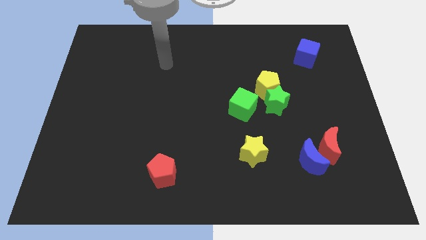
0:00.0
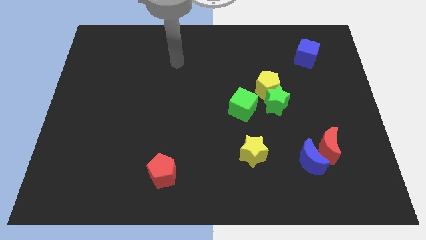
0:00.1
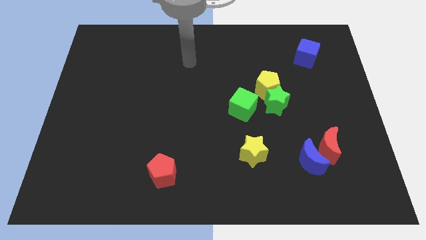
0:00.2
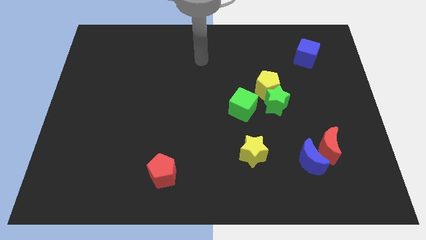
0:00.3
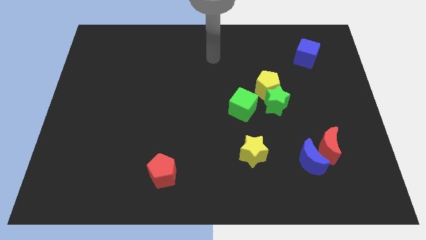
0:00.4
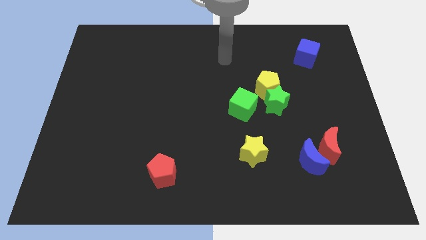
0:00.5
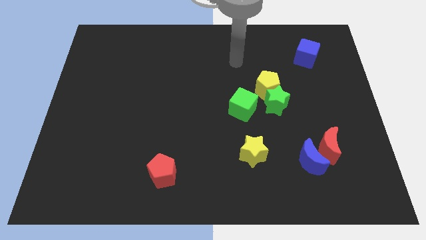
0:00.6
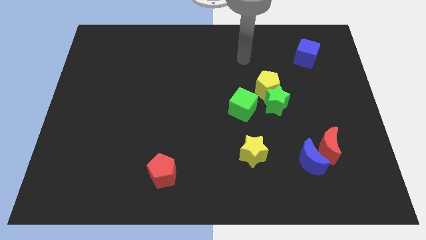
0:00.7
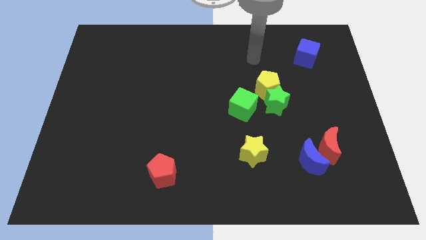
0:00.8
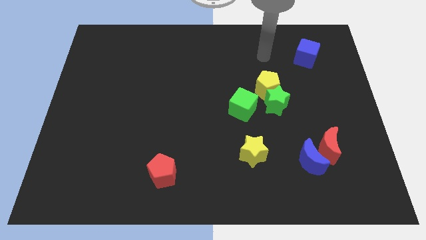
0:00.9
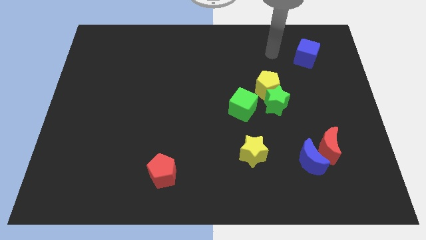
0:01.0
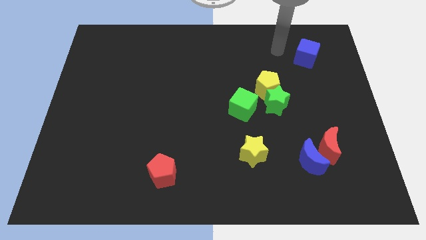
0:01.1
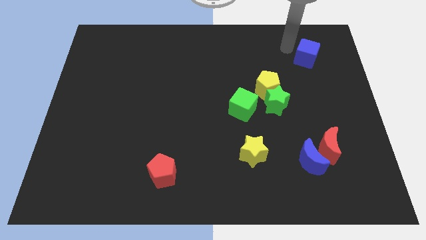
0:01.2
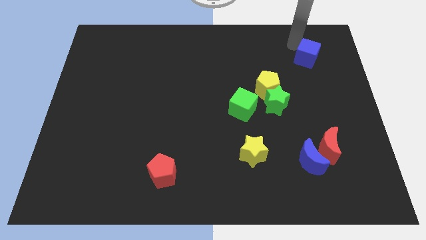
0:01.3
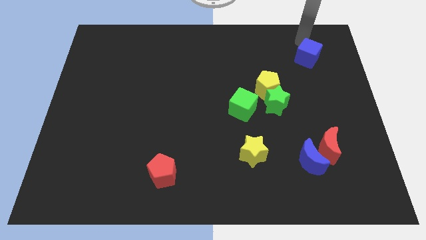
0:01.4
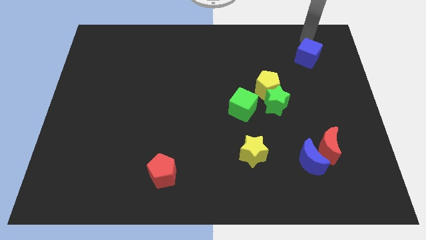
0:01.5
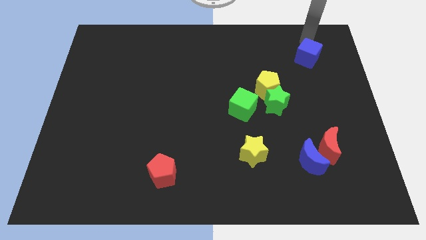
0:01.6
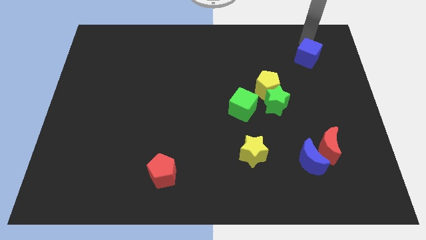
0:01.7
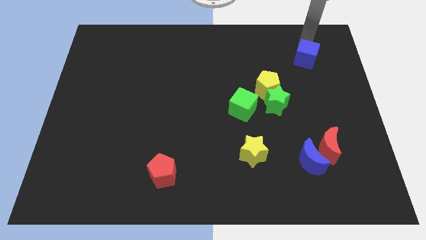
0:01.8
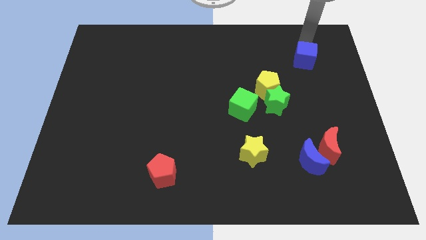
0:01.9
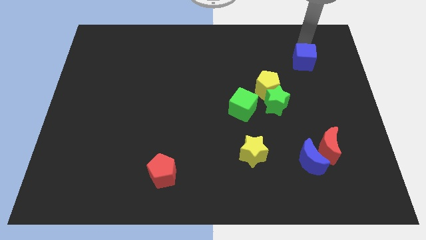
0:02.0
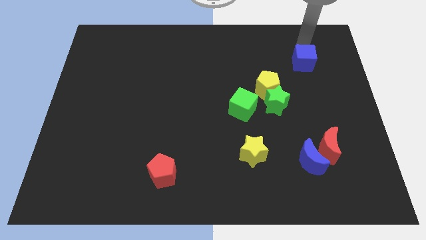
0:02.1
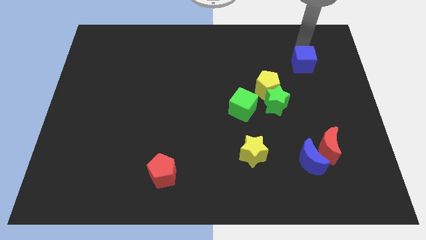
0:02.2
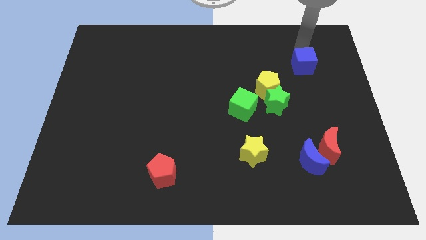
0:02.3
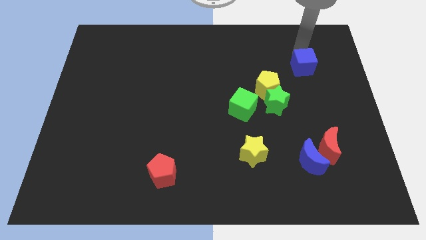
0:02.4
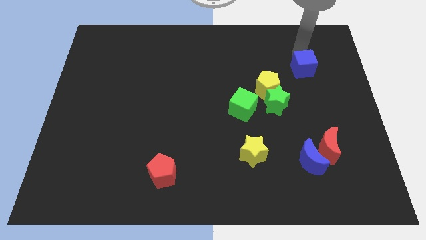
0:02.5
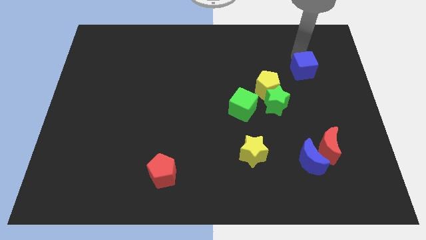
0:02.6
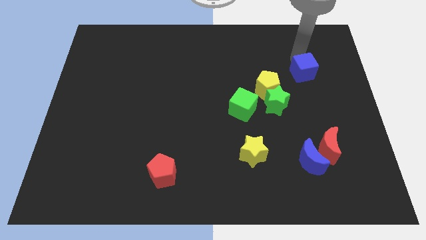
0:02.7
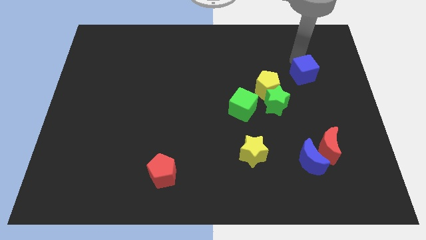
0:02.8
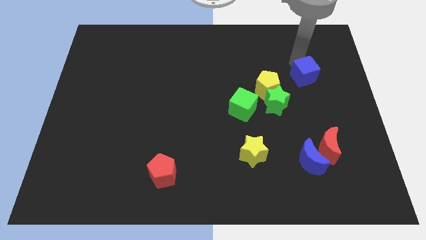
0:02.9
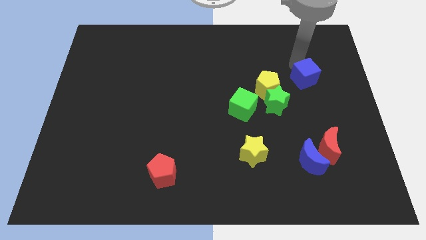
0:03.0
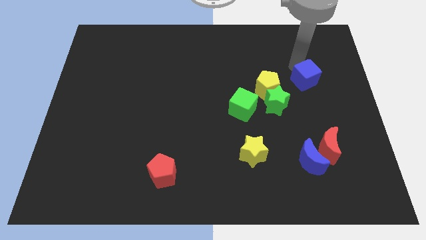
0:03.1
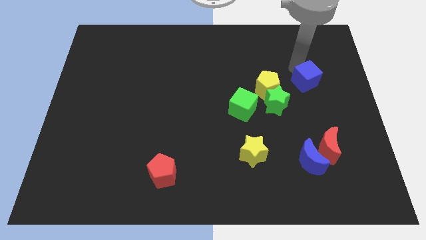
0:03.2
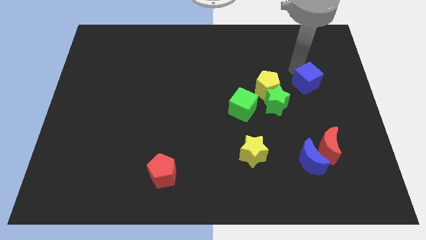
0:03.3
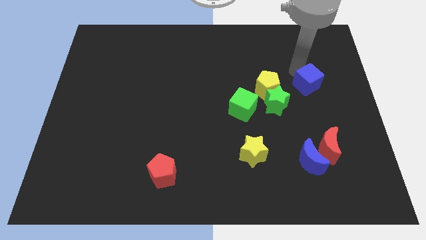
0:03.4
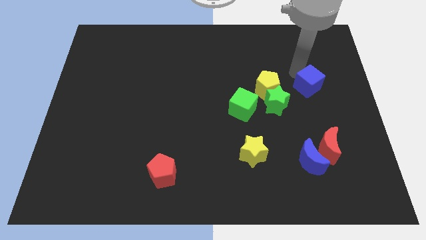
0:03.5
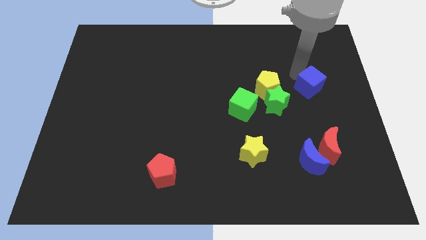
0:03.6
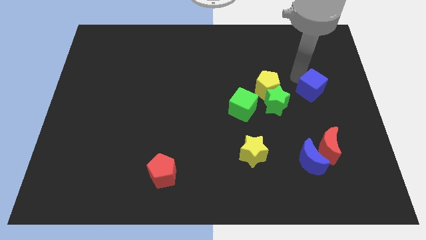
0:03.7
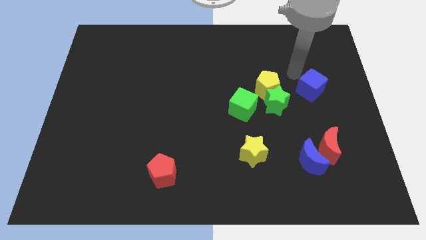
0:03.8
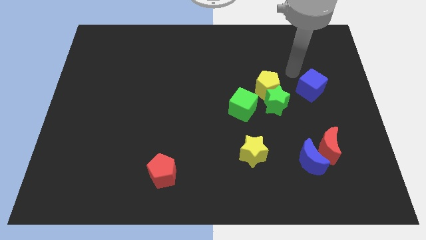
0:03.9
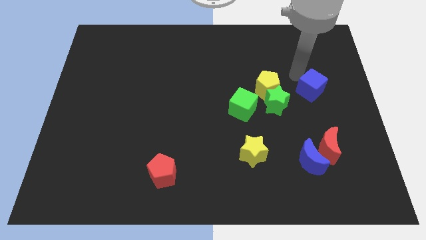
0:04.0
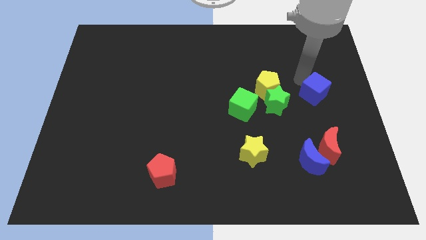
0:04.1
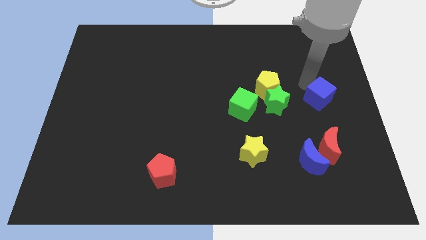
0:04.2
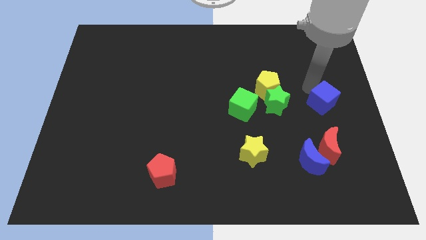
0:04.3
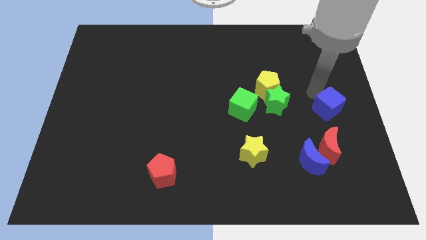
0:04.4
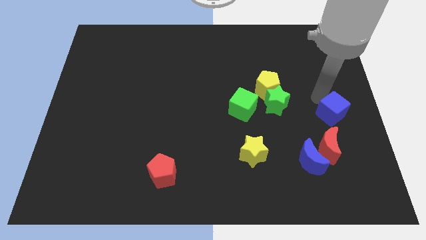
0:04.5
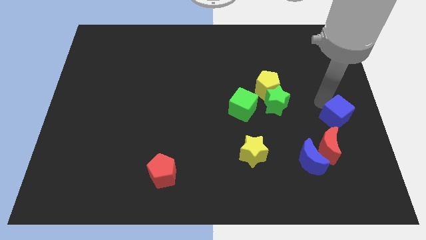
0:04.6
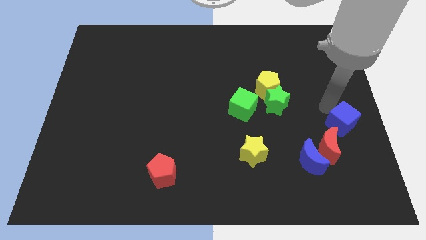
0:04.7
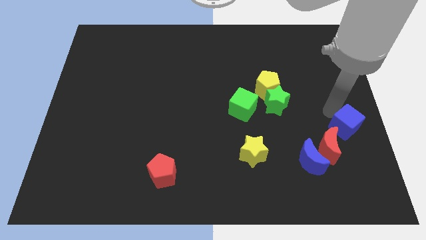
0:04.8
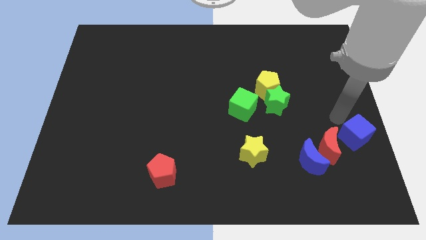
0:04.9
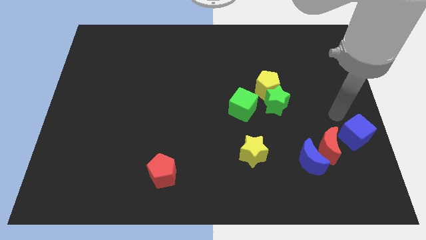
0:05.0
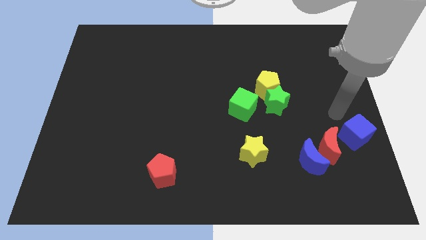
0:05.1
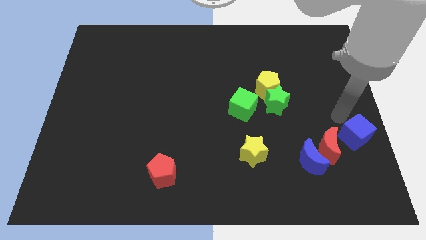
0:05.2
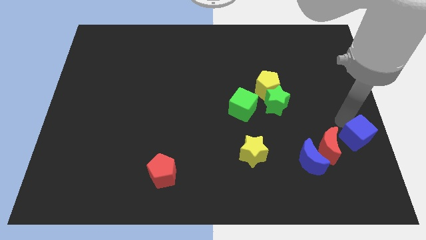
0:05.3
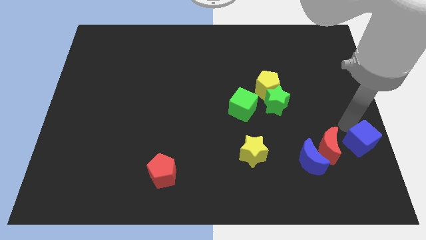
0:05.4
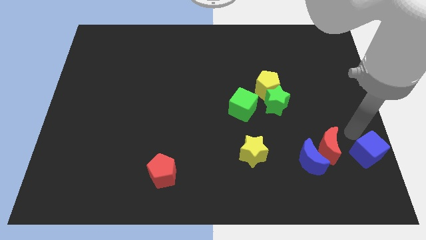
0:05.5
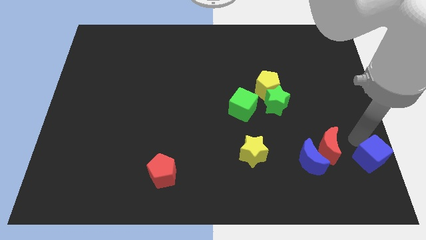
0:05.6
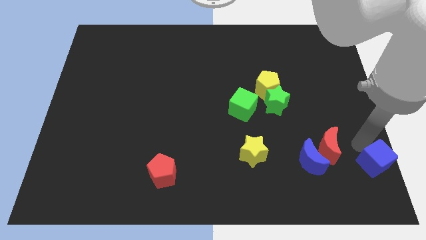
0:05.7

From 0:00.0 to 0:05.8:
move the blue cube to the lower right corner

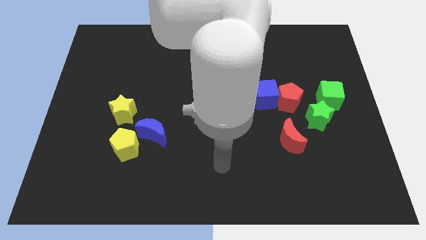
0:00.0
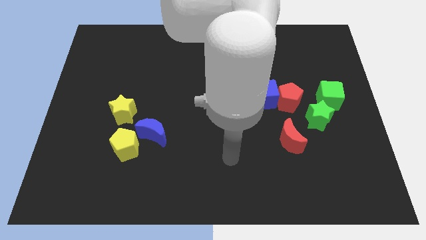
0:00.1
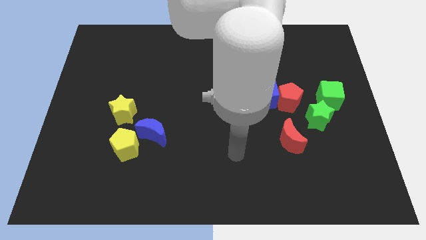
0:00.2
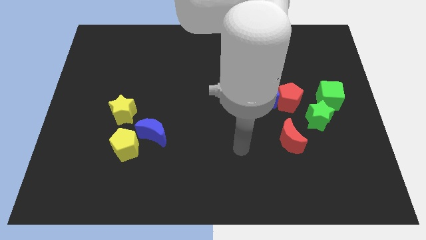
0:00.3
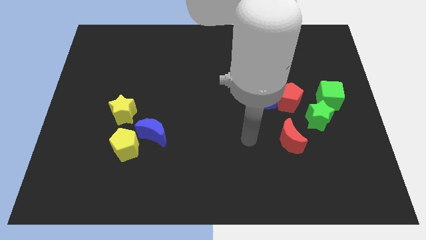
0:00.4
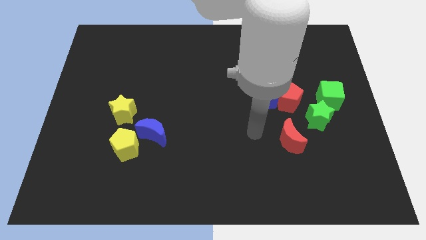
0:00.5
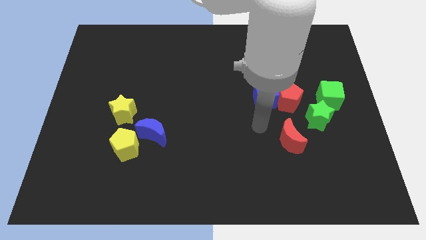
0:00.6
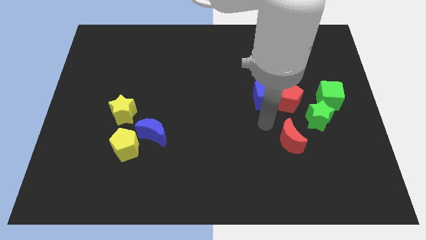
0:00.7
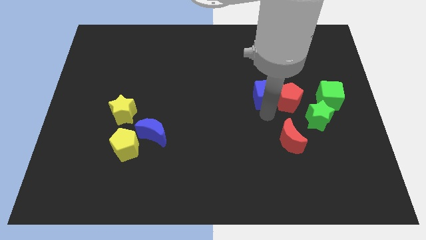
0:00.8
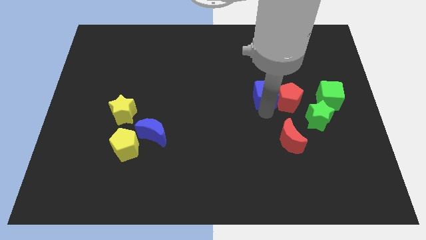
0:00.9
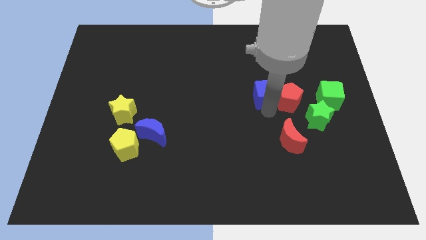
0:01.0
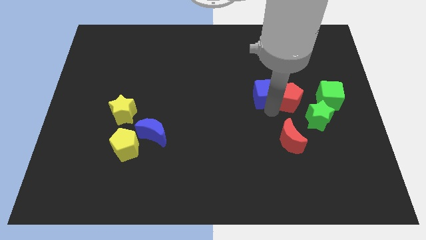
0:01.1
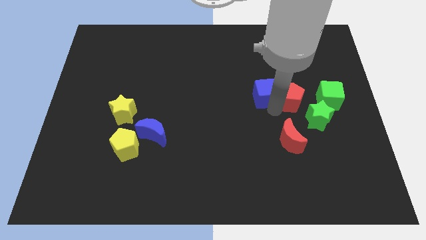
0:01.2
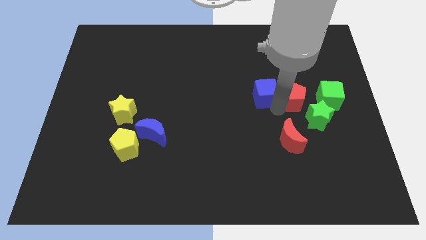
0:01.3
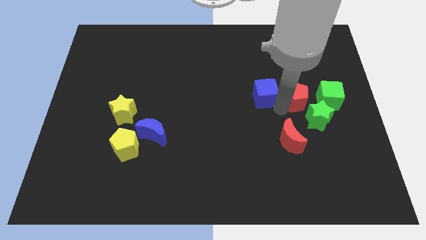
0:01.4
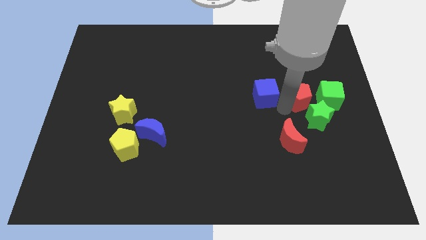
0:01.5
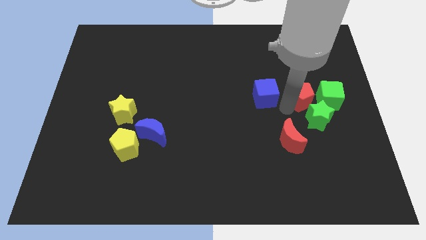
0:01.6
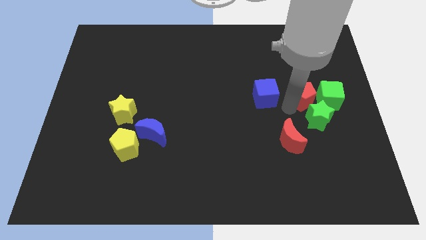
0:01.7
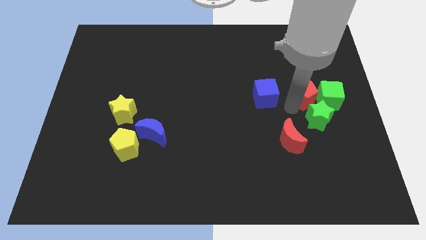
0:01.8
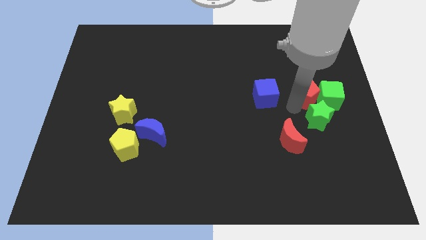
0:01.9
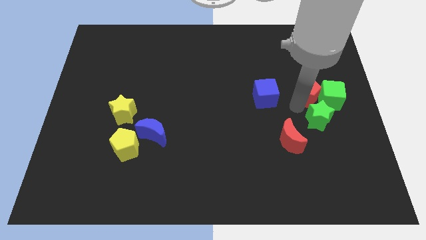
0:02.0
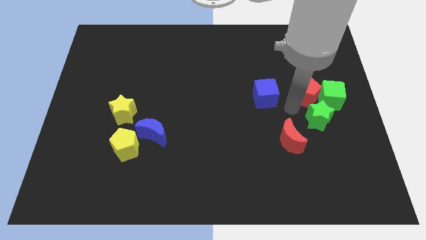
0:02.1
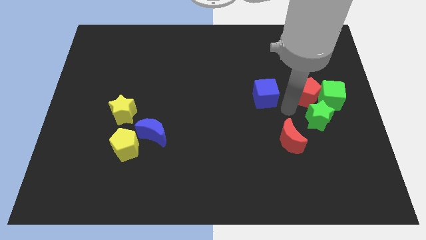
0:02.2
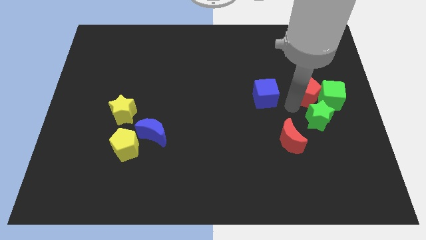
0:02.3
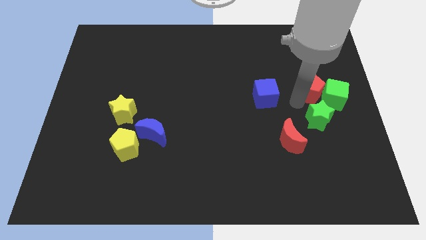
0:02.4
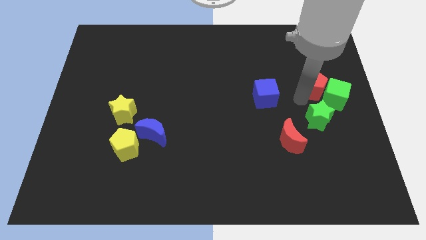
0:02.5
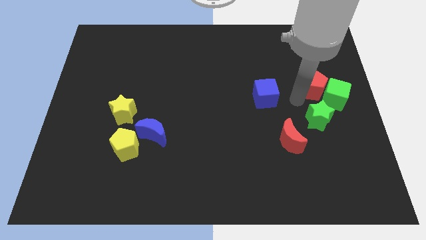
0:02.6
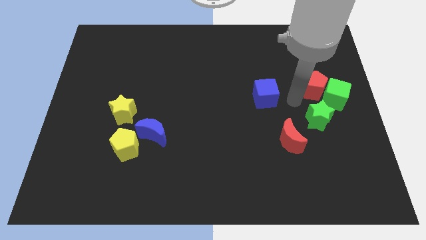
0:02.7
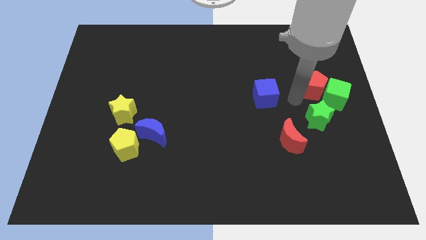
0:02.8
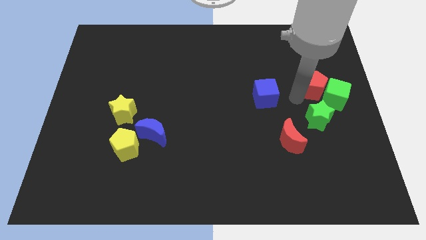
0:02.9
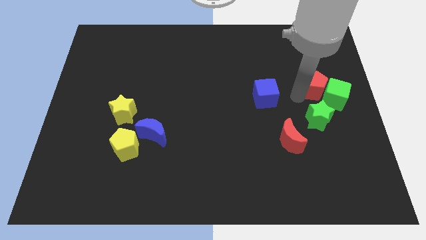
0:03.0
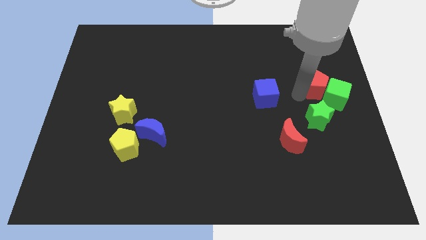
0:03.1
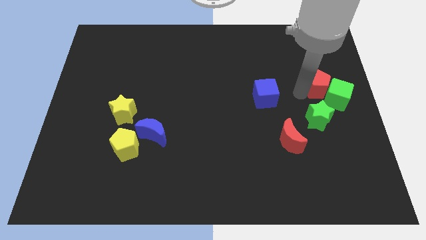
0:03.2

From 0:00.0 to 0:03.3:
push the red pentagon to the right side of the board
